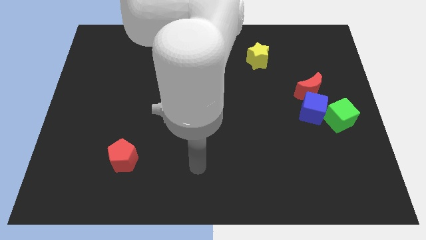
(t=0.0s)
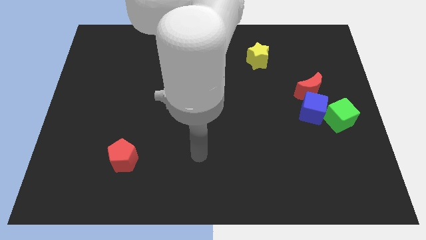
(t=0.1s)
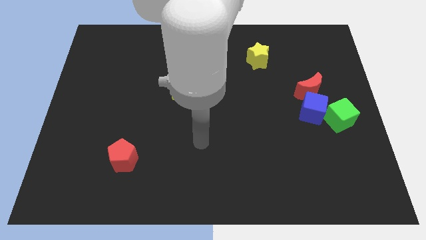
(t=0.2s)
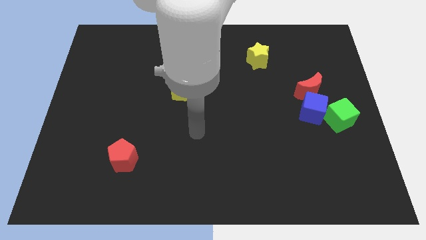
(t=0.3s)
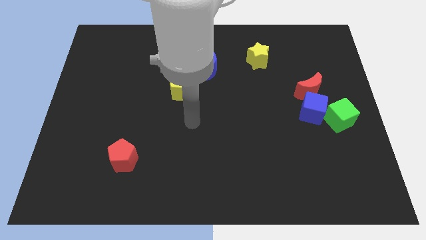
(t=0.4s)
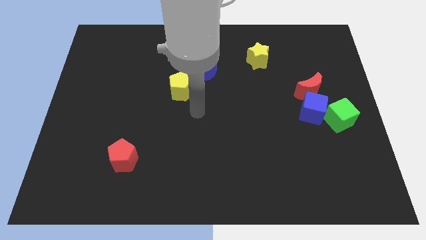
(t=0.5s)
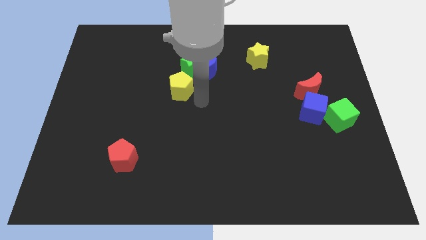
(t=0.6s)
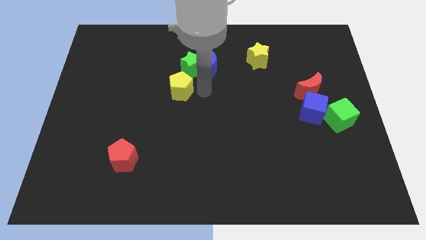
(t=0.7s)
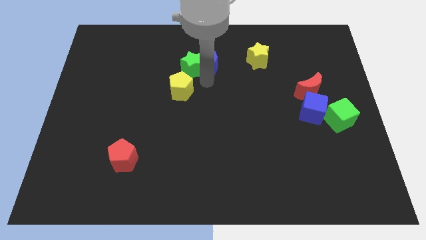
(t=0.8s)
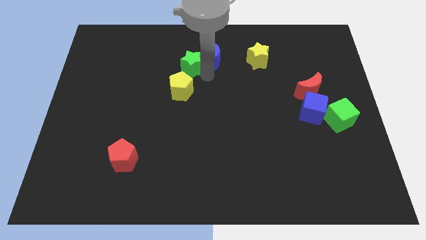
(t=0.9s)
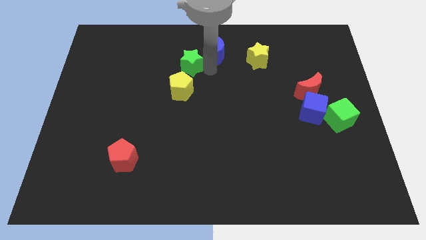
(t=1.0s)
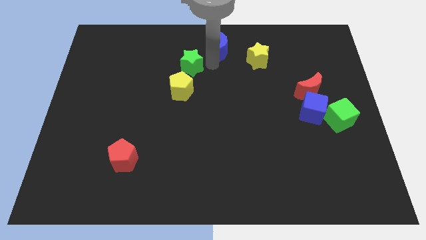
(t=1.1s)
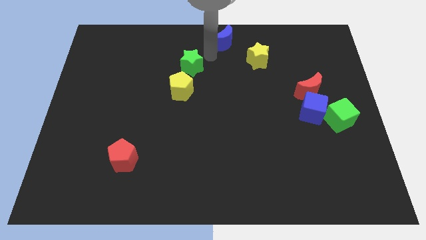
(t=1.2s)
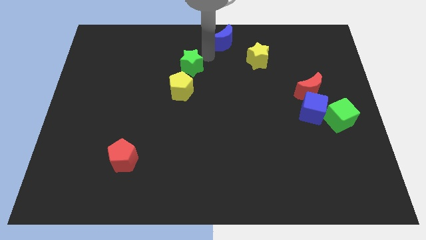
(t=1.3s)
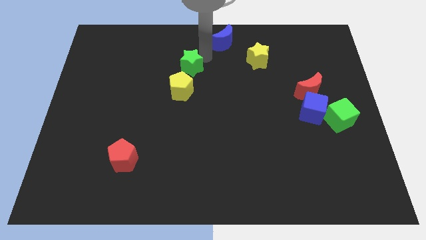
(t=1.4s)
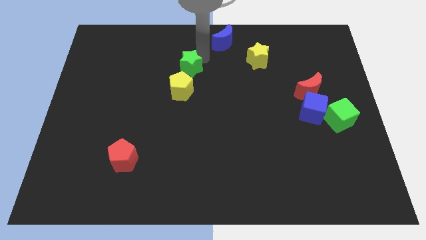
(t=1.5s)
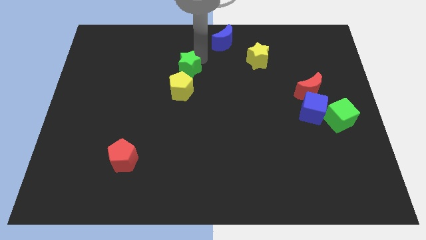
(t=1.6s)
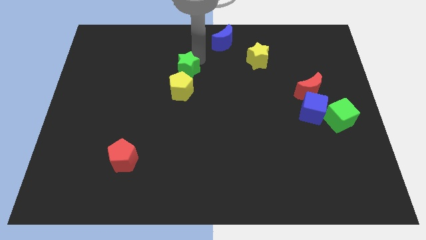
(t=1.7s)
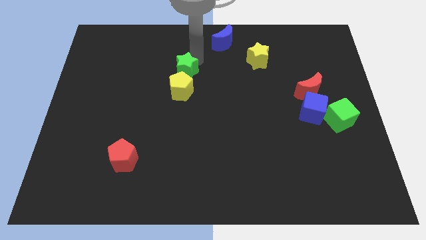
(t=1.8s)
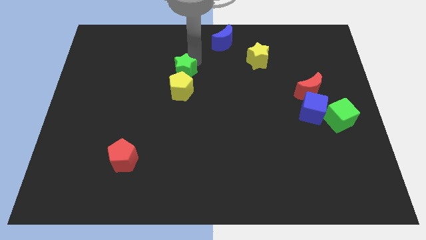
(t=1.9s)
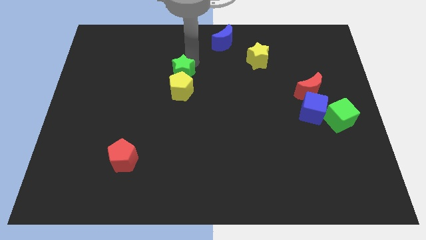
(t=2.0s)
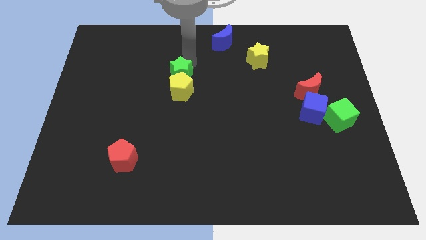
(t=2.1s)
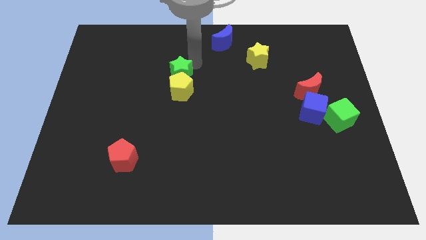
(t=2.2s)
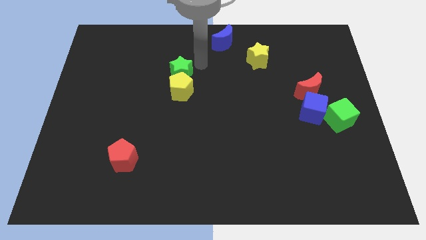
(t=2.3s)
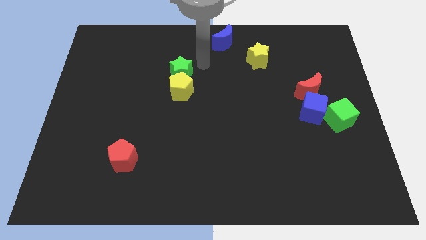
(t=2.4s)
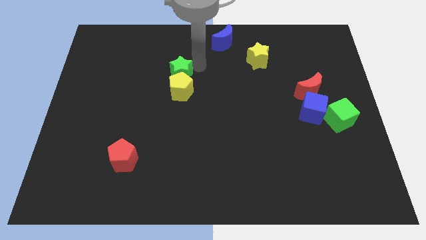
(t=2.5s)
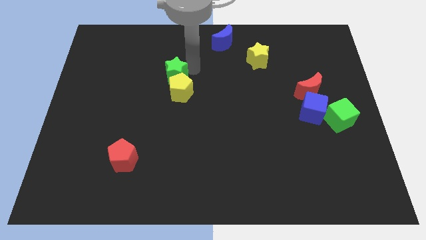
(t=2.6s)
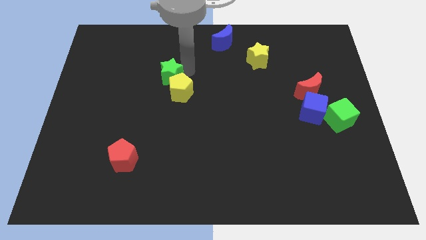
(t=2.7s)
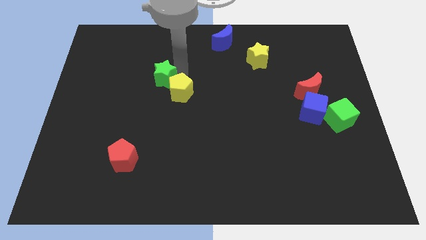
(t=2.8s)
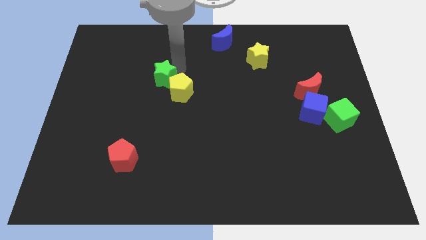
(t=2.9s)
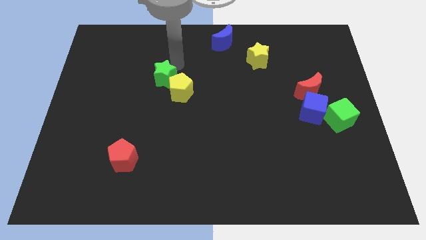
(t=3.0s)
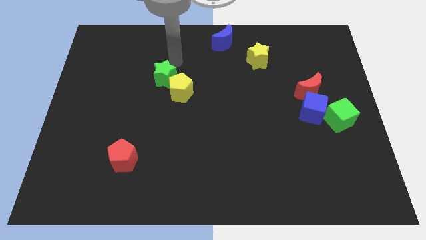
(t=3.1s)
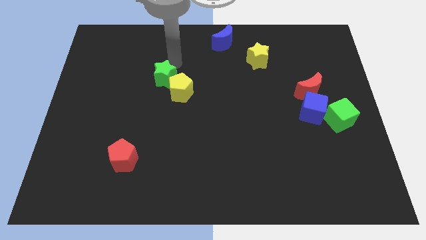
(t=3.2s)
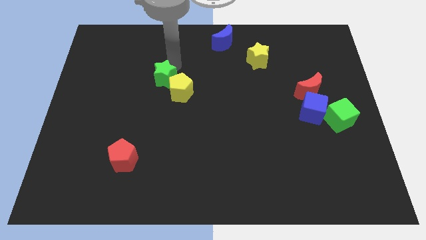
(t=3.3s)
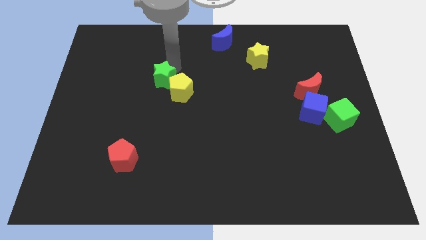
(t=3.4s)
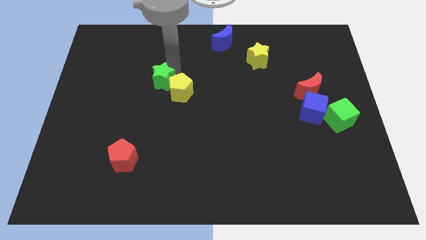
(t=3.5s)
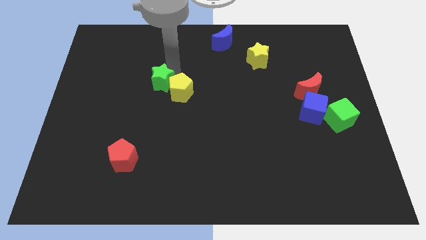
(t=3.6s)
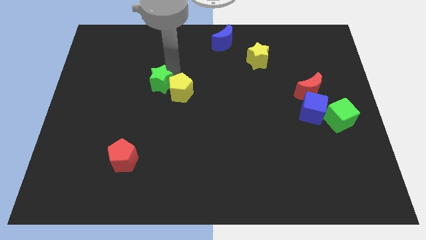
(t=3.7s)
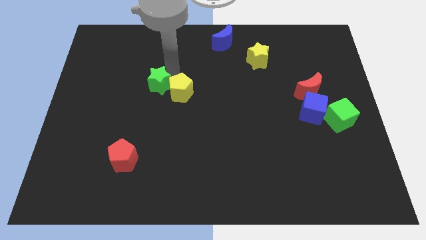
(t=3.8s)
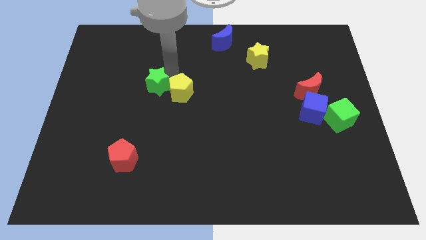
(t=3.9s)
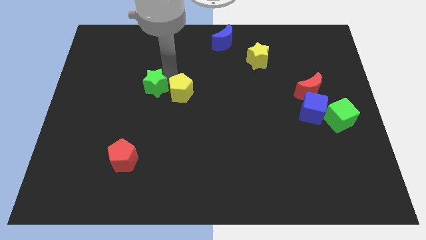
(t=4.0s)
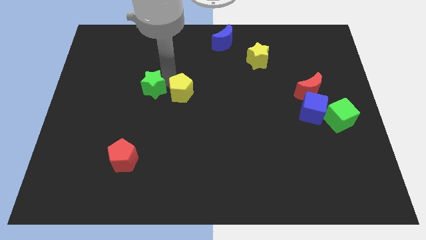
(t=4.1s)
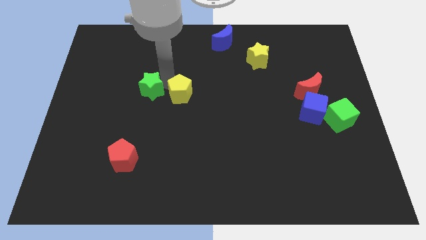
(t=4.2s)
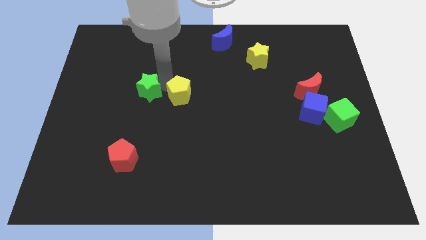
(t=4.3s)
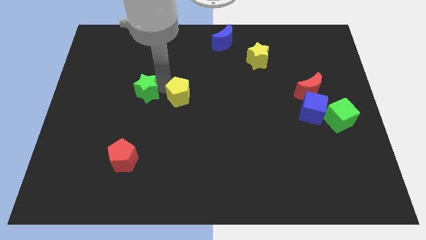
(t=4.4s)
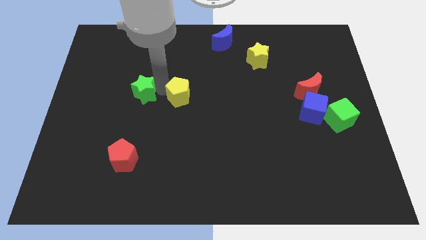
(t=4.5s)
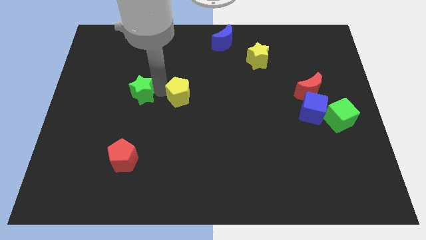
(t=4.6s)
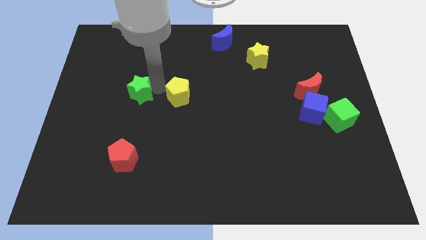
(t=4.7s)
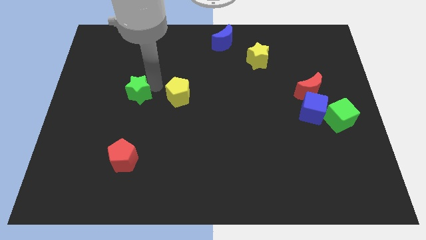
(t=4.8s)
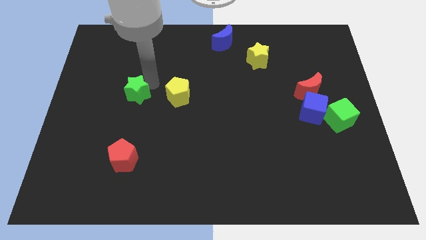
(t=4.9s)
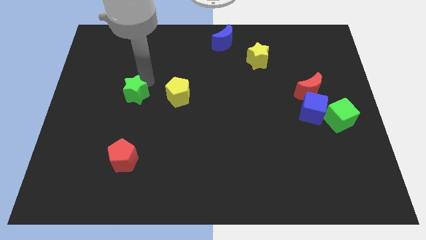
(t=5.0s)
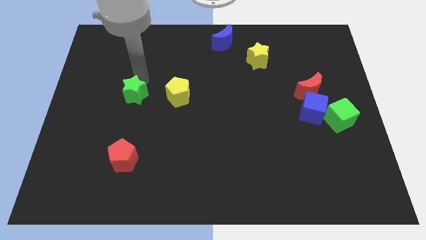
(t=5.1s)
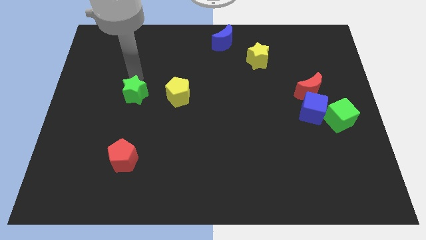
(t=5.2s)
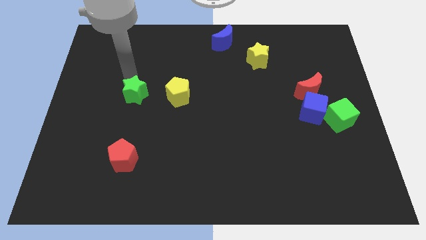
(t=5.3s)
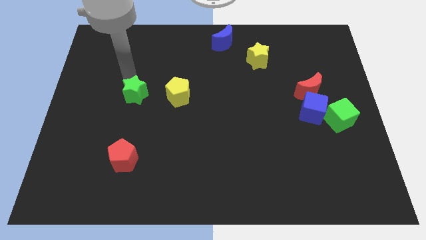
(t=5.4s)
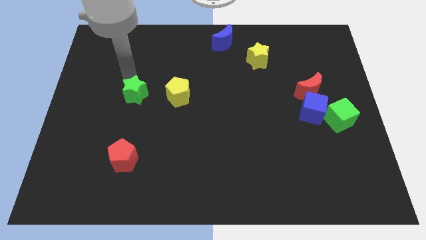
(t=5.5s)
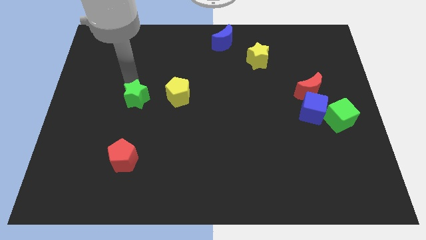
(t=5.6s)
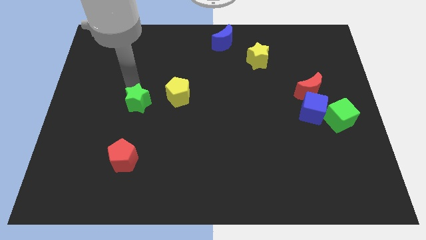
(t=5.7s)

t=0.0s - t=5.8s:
put the green star to the top of the red pentagon

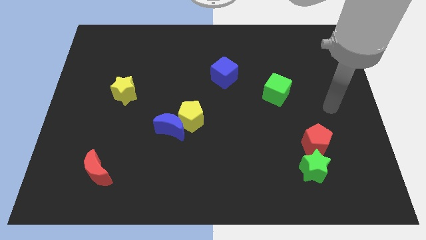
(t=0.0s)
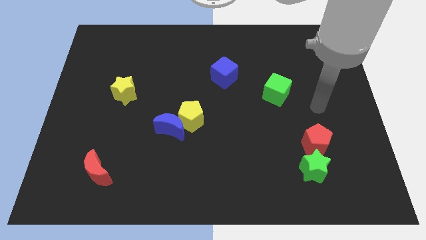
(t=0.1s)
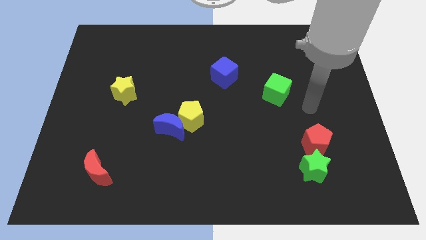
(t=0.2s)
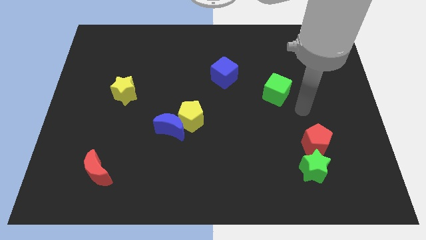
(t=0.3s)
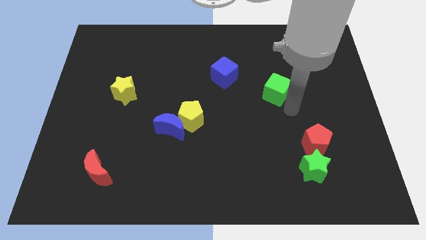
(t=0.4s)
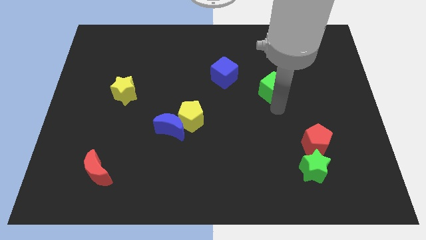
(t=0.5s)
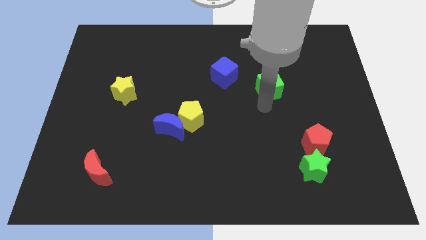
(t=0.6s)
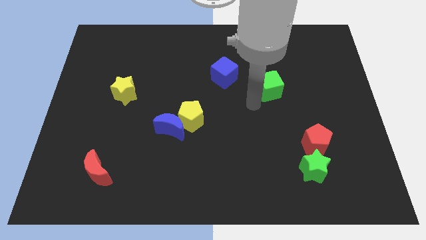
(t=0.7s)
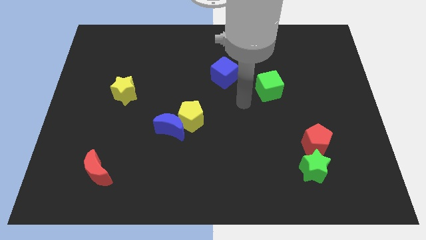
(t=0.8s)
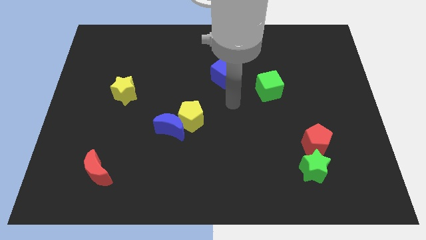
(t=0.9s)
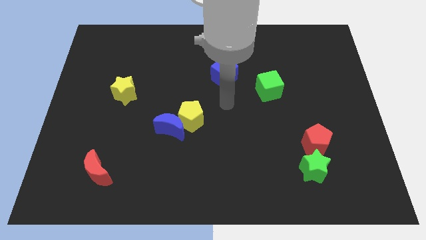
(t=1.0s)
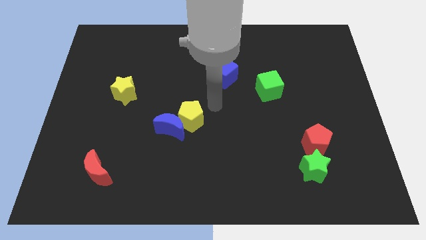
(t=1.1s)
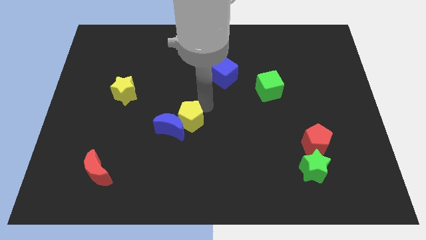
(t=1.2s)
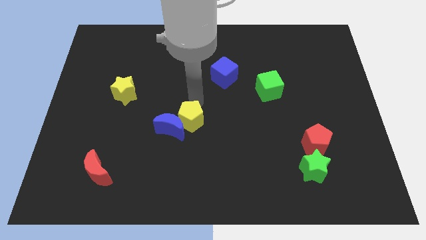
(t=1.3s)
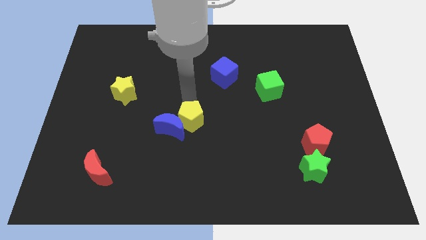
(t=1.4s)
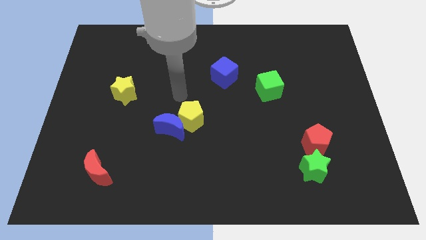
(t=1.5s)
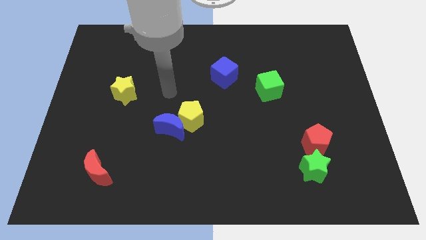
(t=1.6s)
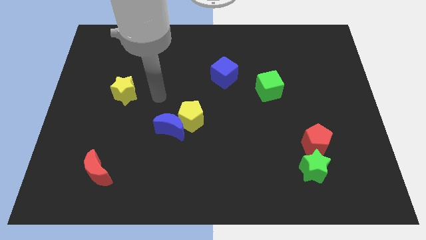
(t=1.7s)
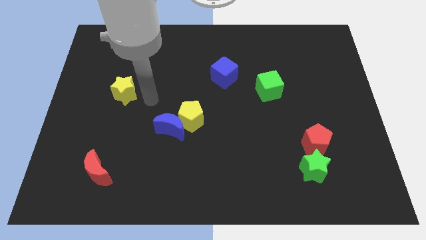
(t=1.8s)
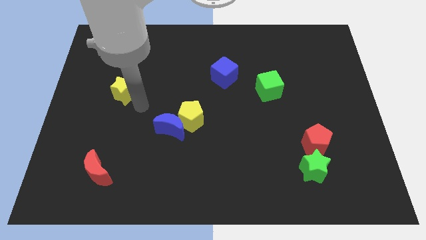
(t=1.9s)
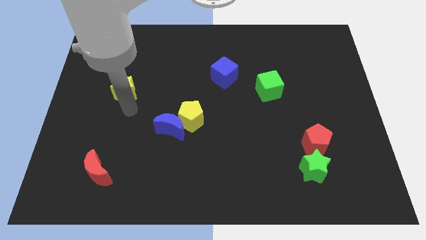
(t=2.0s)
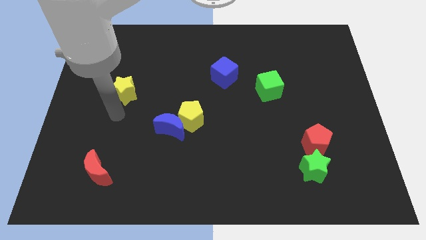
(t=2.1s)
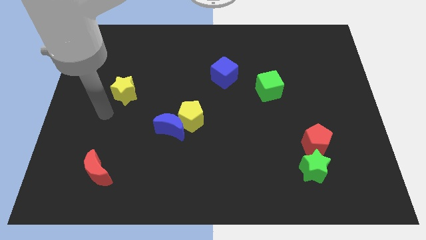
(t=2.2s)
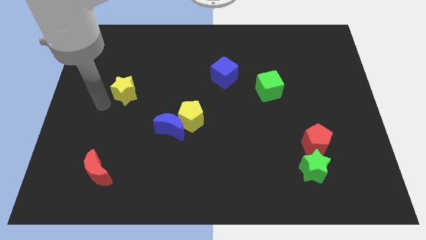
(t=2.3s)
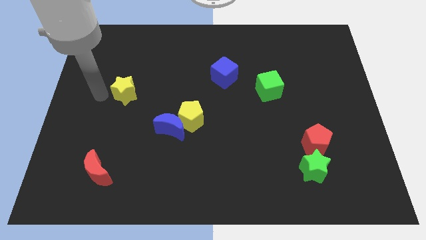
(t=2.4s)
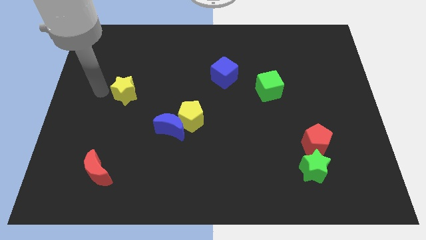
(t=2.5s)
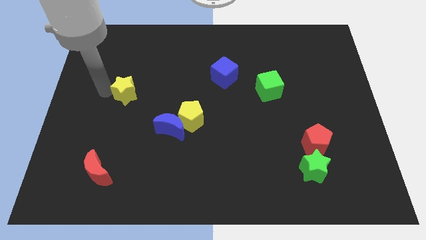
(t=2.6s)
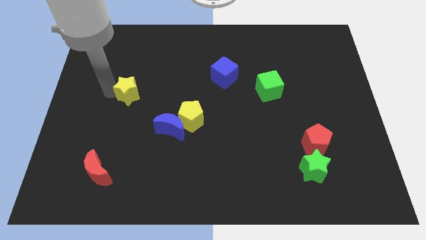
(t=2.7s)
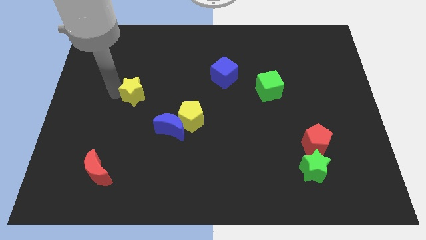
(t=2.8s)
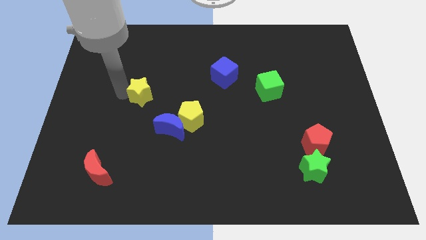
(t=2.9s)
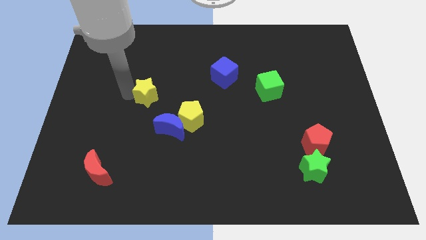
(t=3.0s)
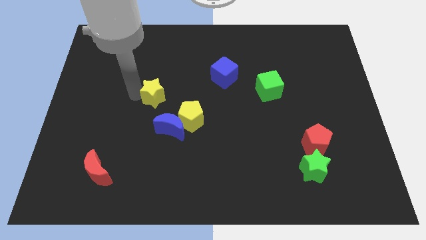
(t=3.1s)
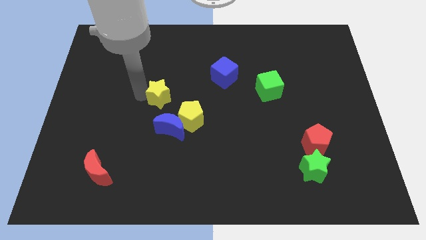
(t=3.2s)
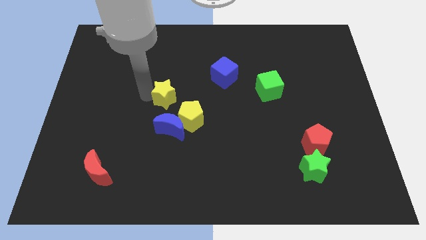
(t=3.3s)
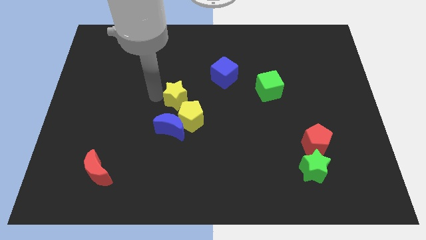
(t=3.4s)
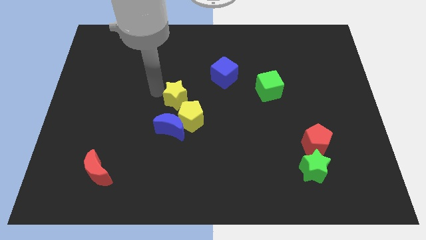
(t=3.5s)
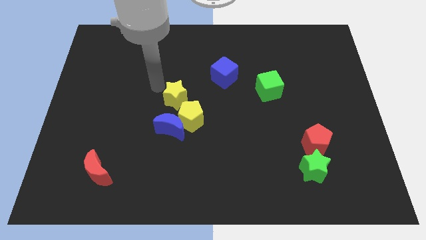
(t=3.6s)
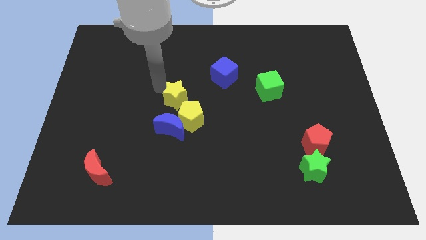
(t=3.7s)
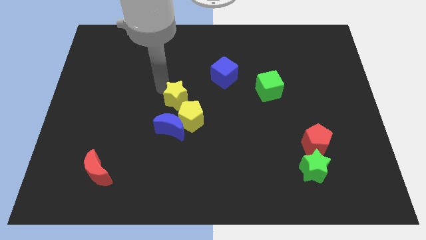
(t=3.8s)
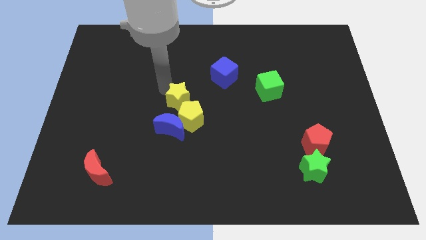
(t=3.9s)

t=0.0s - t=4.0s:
put the yellow star to the top right of the blue moon
